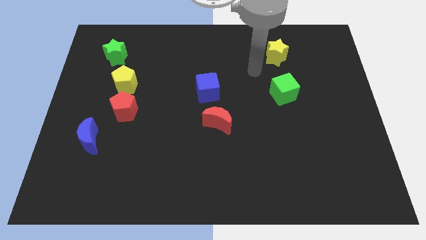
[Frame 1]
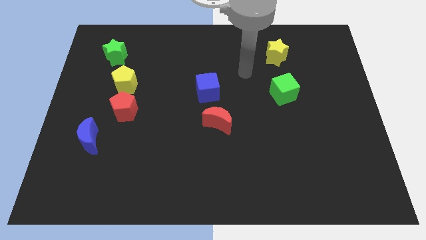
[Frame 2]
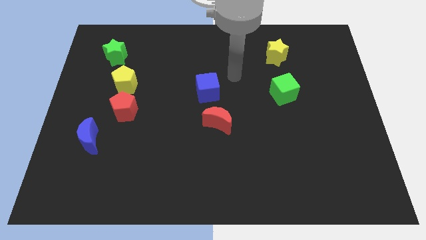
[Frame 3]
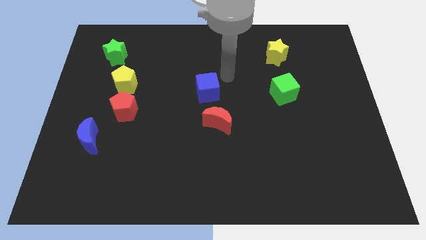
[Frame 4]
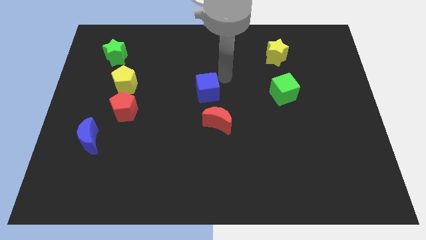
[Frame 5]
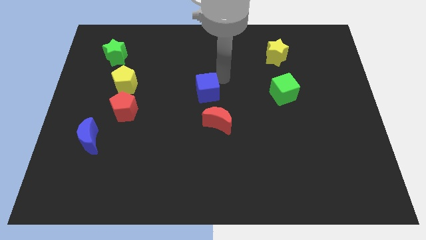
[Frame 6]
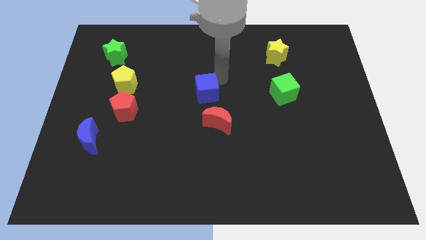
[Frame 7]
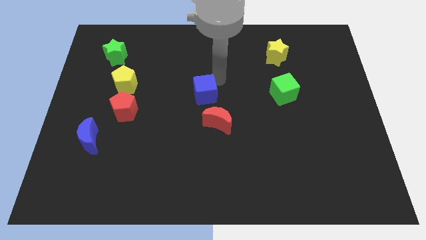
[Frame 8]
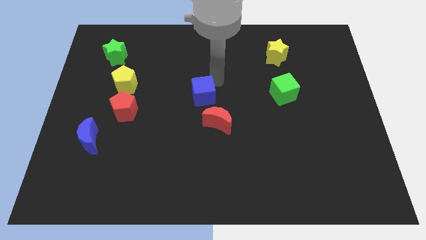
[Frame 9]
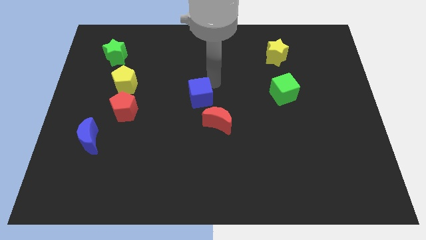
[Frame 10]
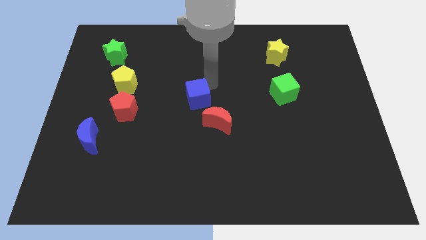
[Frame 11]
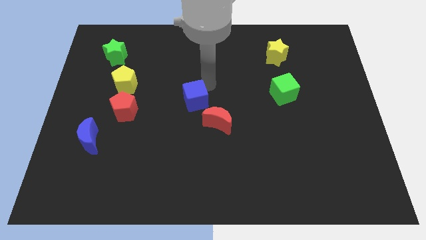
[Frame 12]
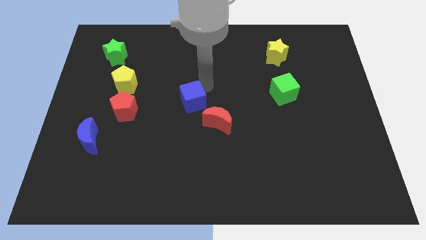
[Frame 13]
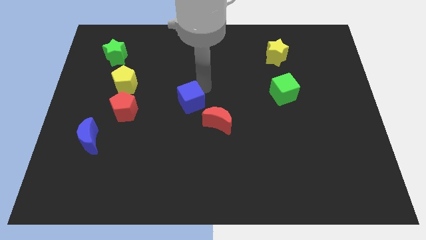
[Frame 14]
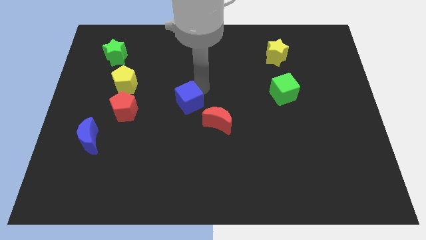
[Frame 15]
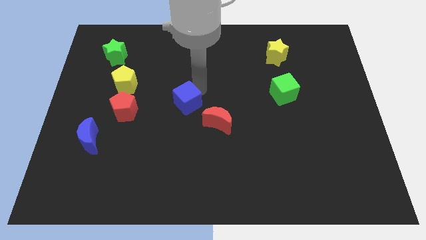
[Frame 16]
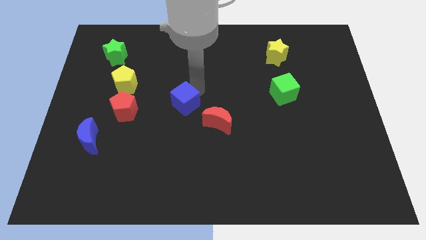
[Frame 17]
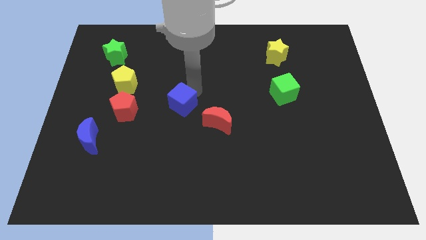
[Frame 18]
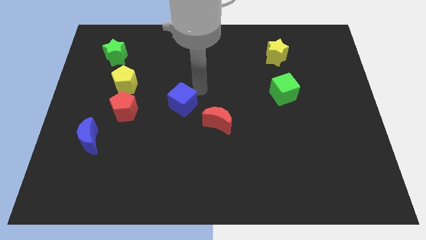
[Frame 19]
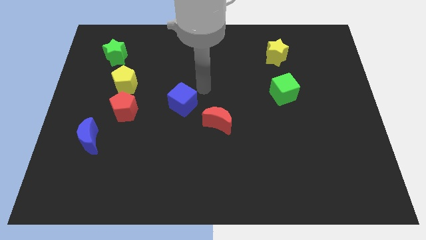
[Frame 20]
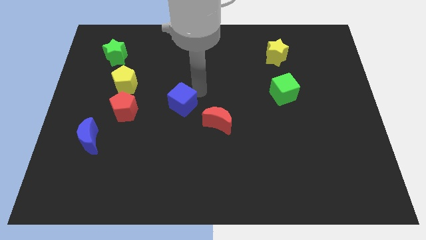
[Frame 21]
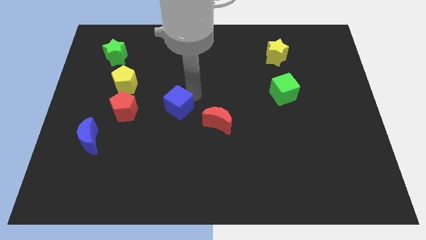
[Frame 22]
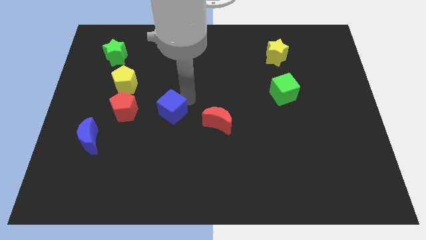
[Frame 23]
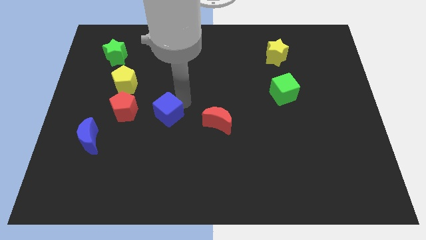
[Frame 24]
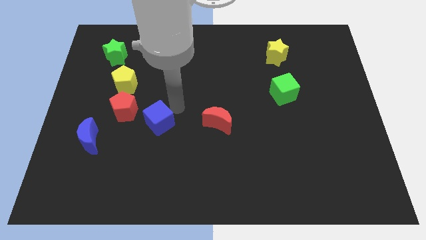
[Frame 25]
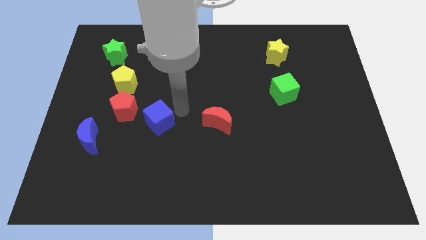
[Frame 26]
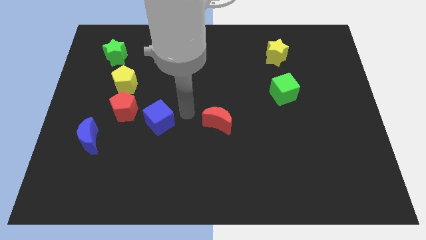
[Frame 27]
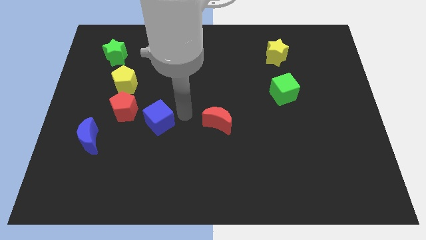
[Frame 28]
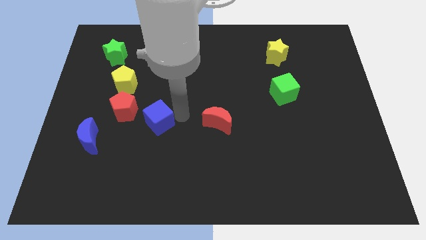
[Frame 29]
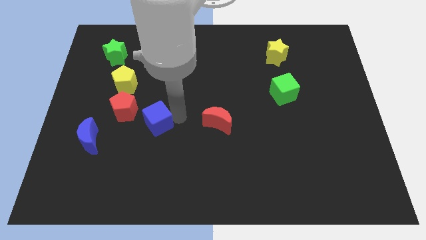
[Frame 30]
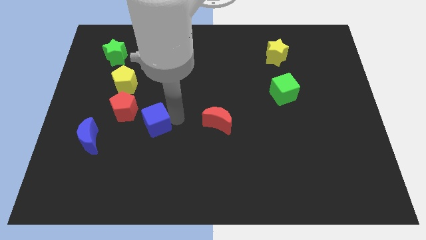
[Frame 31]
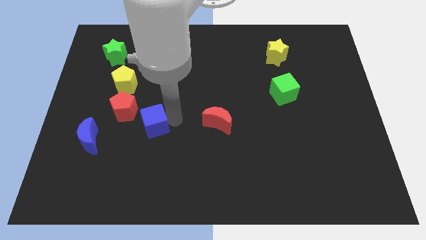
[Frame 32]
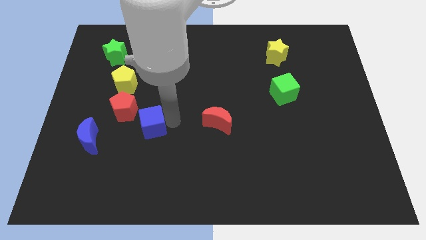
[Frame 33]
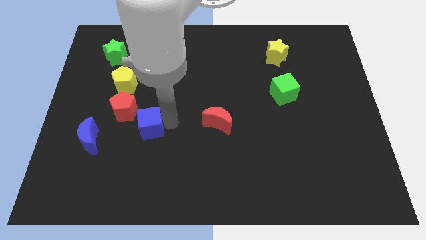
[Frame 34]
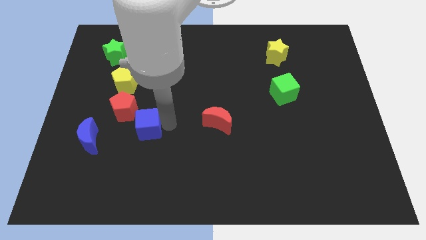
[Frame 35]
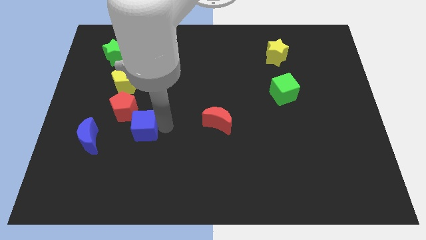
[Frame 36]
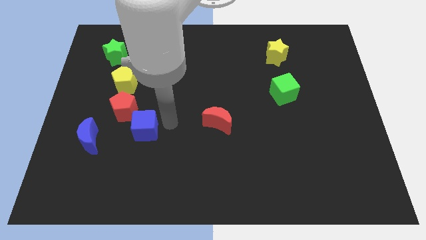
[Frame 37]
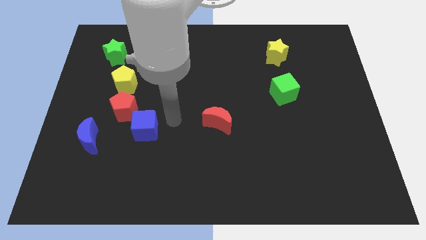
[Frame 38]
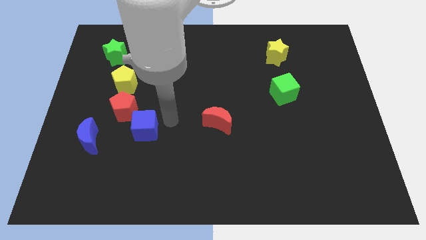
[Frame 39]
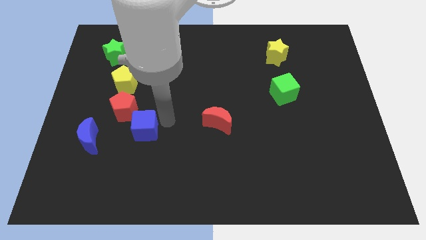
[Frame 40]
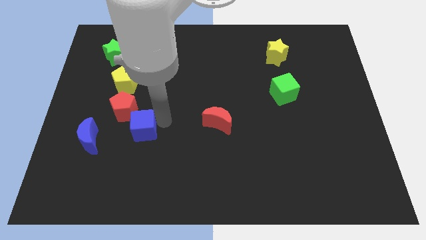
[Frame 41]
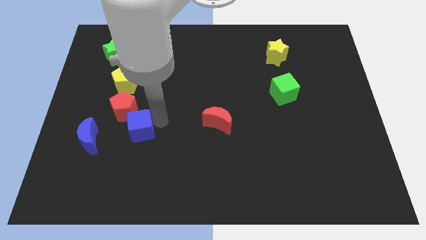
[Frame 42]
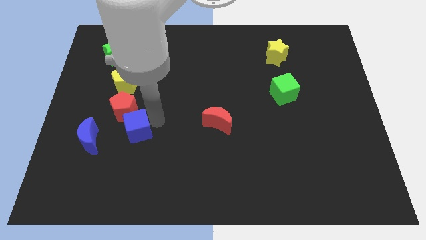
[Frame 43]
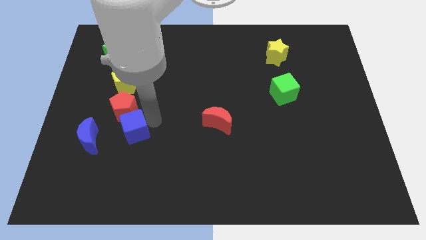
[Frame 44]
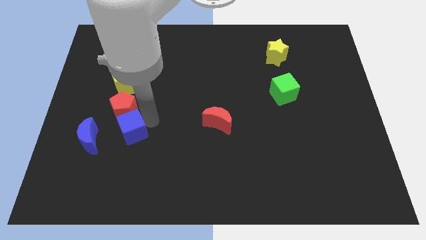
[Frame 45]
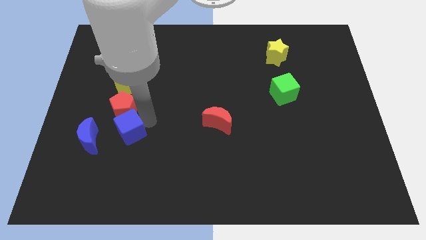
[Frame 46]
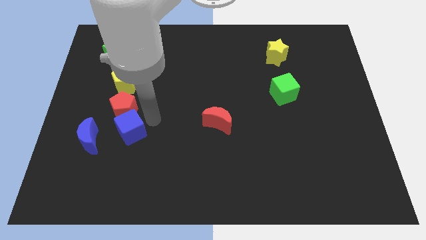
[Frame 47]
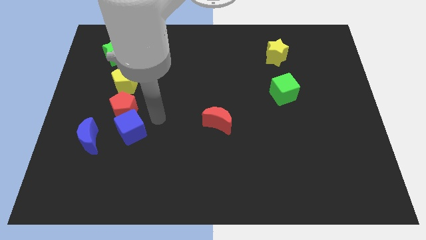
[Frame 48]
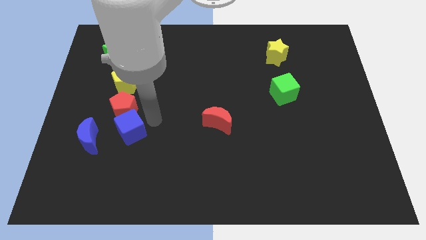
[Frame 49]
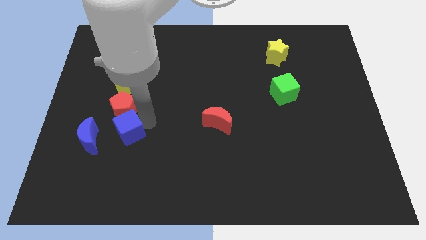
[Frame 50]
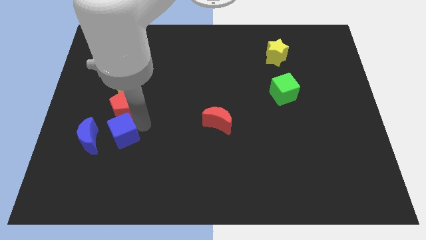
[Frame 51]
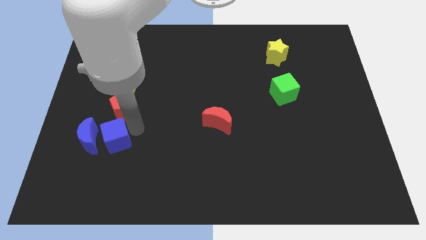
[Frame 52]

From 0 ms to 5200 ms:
slide the blue cube to the blue moon

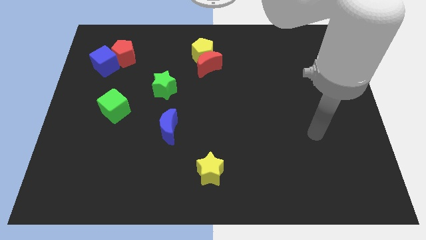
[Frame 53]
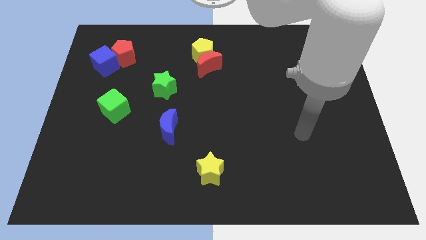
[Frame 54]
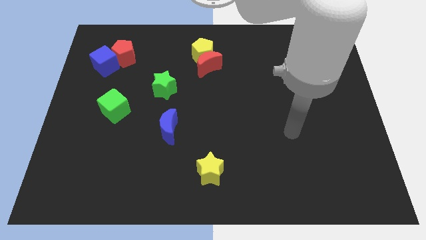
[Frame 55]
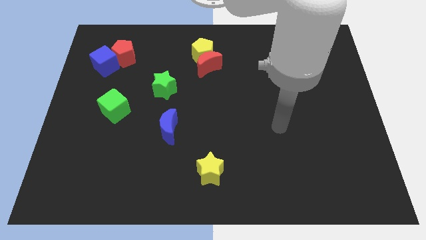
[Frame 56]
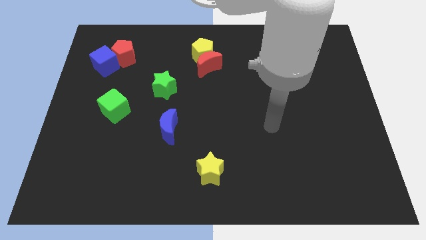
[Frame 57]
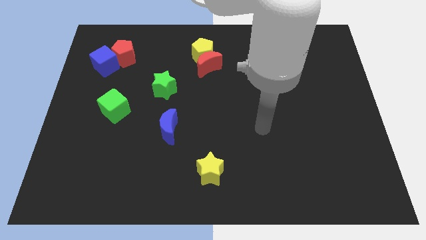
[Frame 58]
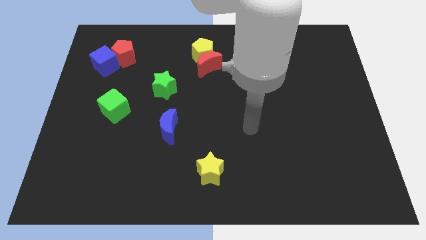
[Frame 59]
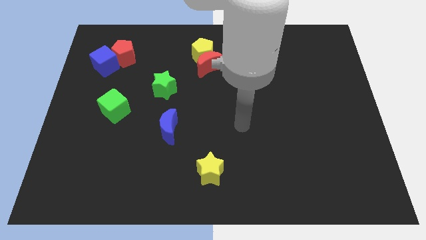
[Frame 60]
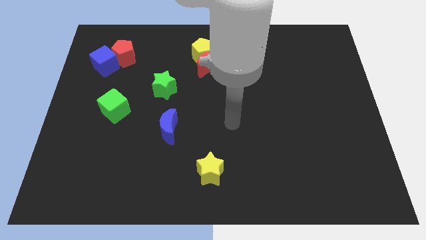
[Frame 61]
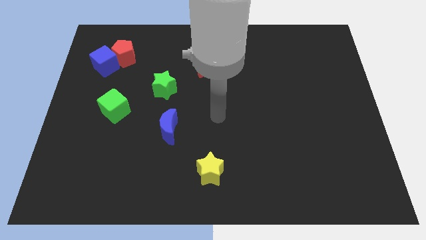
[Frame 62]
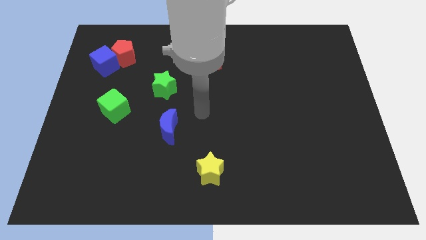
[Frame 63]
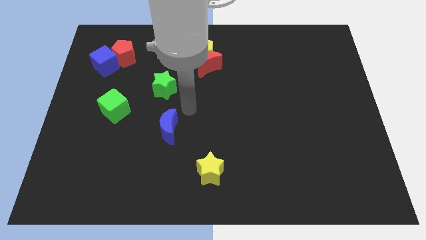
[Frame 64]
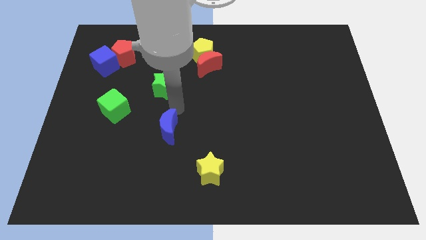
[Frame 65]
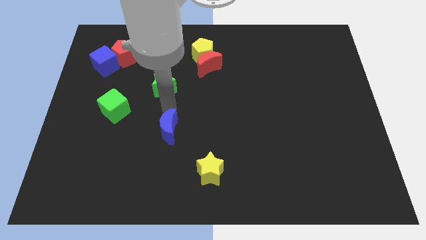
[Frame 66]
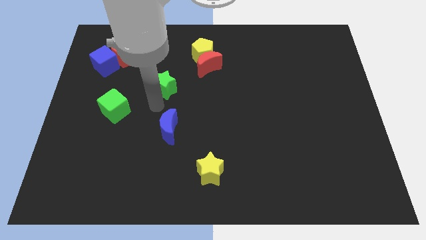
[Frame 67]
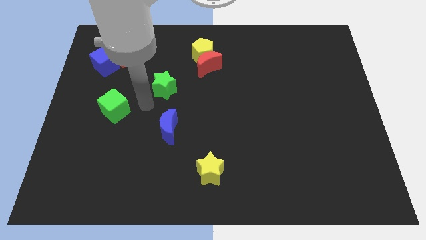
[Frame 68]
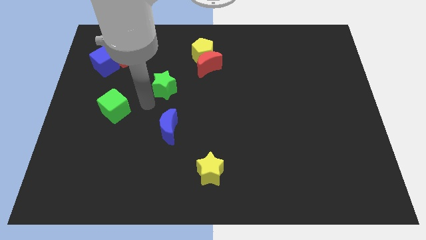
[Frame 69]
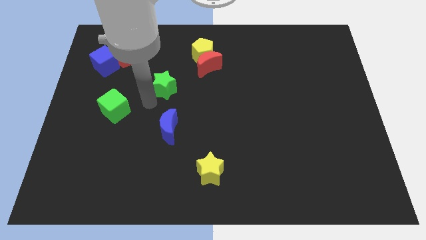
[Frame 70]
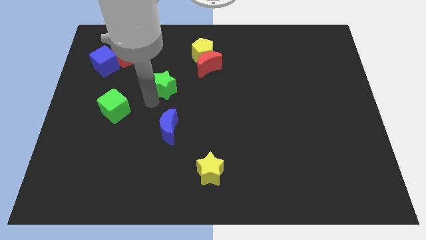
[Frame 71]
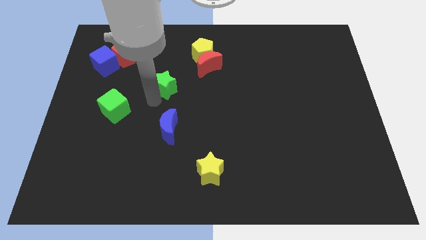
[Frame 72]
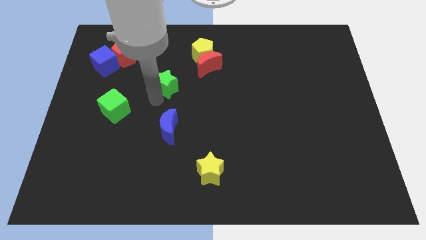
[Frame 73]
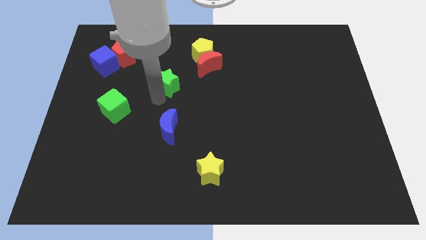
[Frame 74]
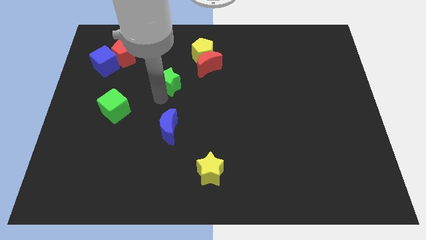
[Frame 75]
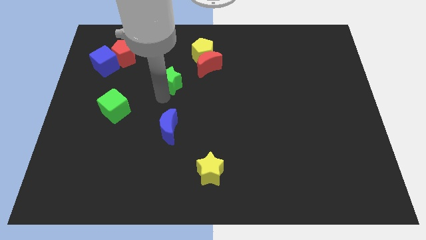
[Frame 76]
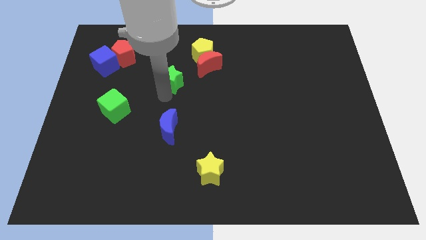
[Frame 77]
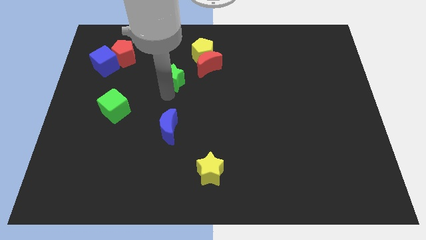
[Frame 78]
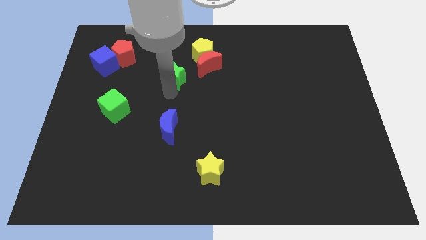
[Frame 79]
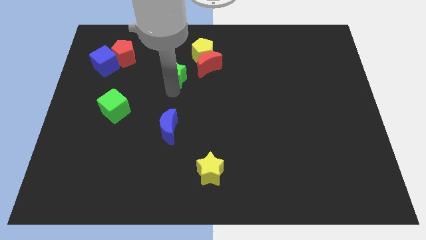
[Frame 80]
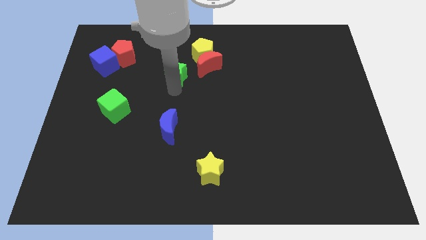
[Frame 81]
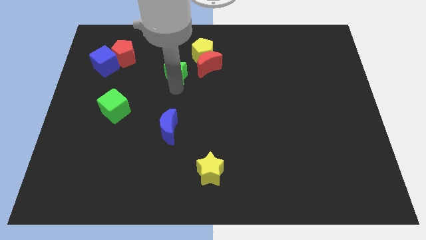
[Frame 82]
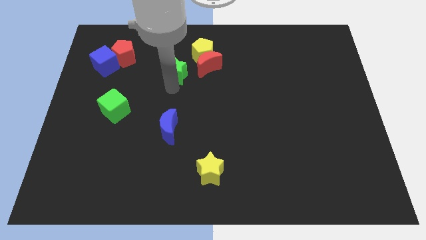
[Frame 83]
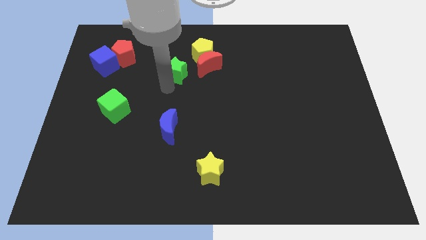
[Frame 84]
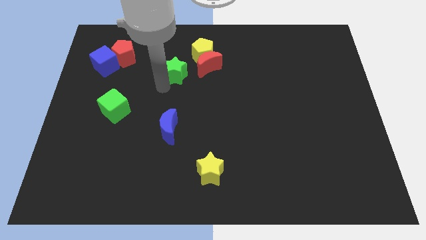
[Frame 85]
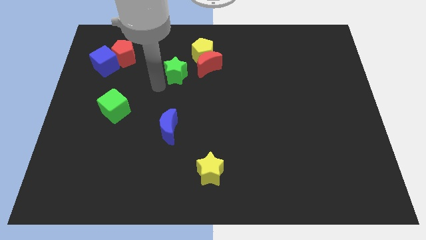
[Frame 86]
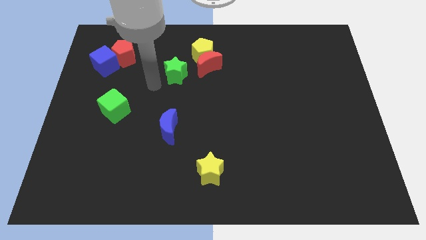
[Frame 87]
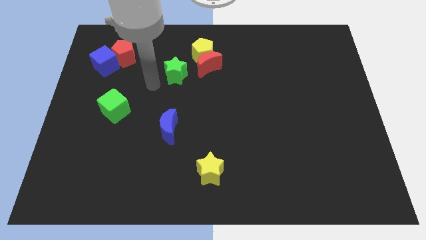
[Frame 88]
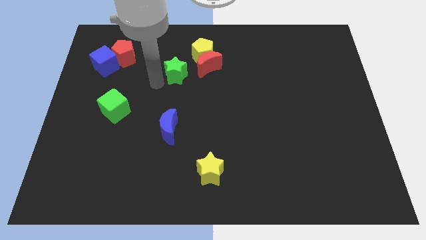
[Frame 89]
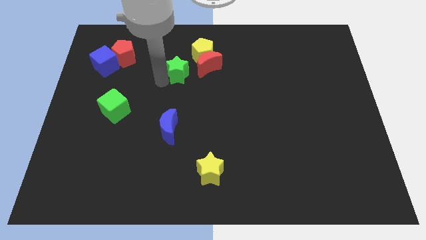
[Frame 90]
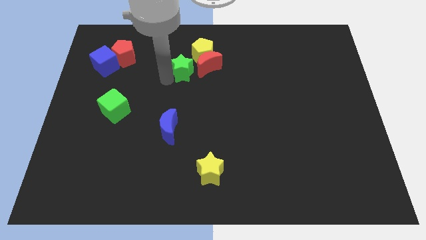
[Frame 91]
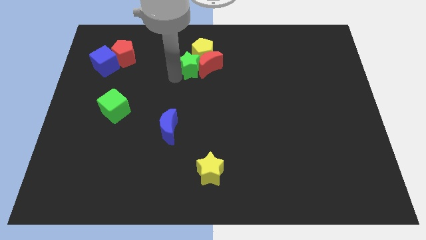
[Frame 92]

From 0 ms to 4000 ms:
put the green star next to the yellow pentagon
